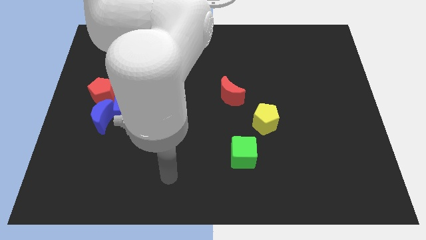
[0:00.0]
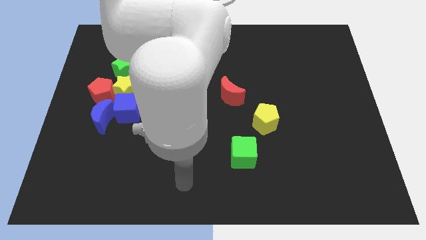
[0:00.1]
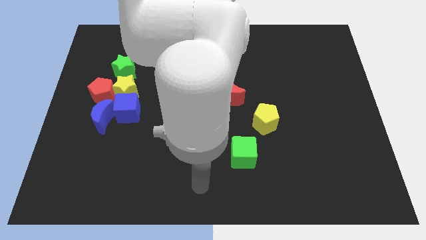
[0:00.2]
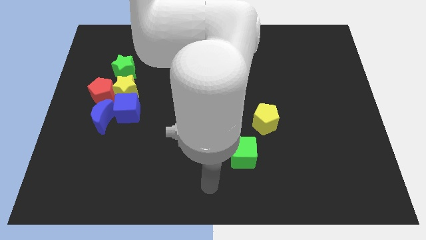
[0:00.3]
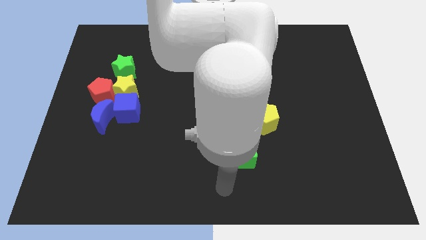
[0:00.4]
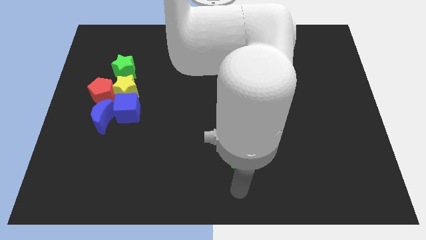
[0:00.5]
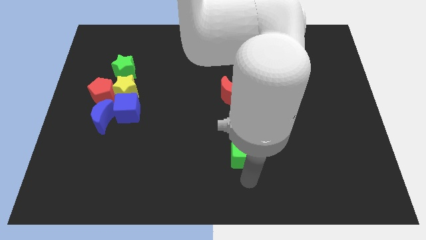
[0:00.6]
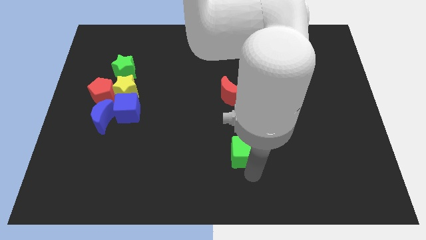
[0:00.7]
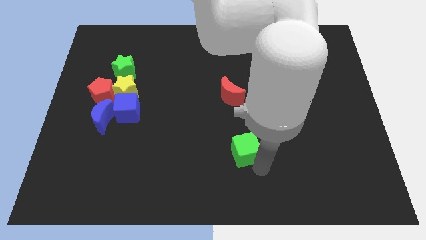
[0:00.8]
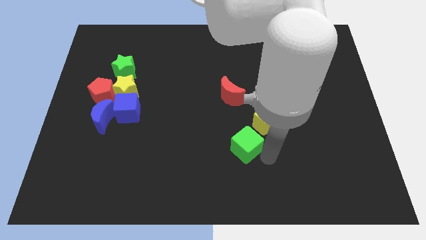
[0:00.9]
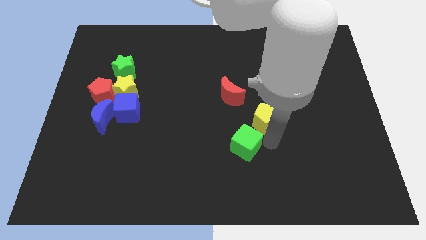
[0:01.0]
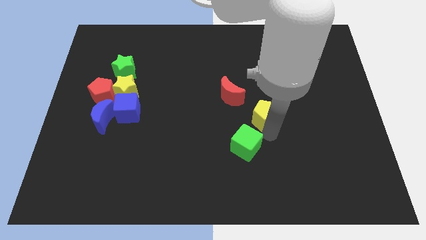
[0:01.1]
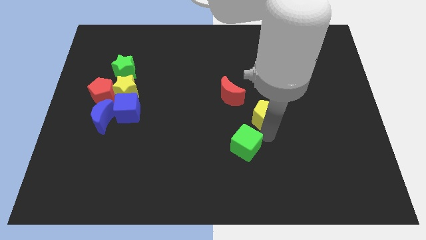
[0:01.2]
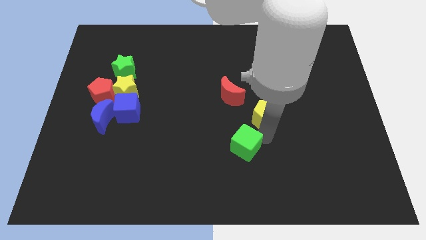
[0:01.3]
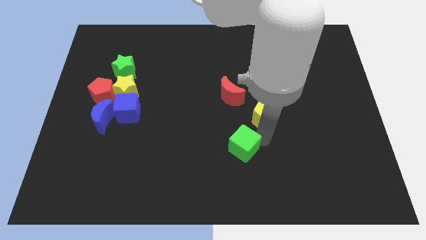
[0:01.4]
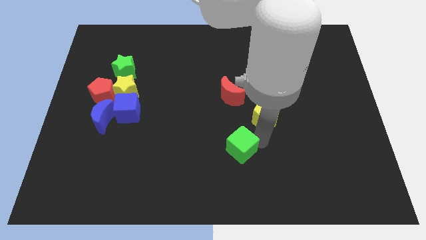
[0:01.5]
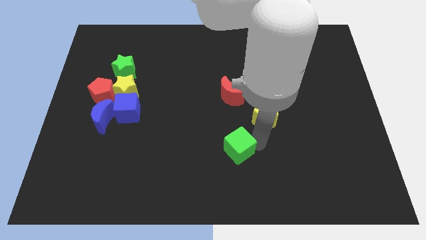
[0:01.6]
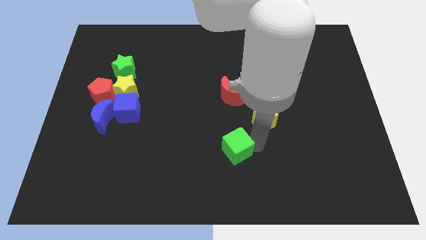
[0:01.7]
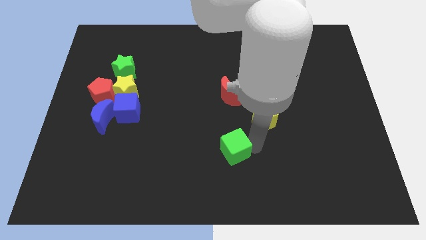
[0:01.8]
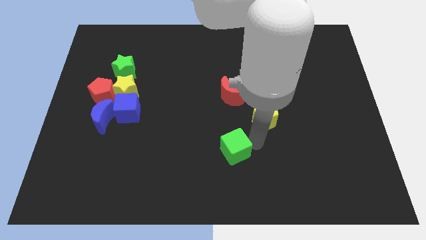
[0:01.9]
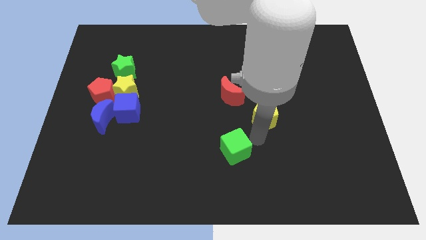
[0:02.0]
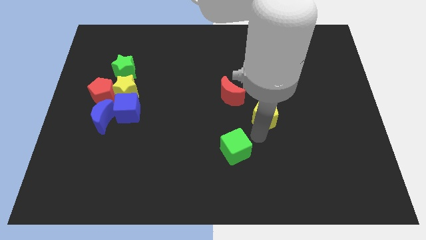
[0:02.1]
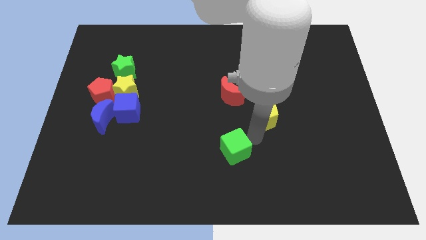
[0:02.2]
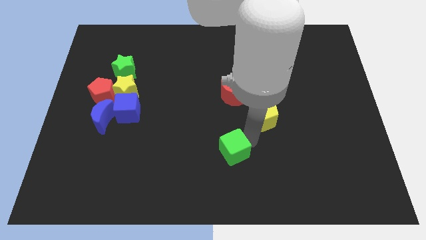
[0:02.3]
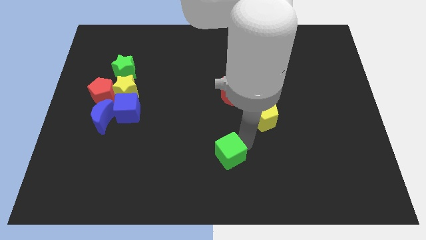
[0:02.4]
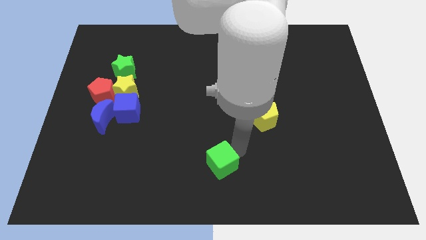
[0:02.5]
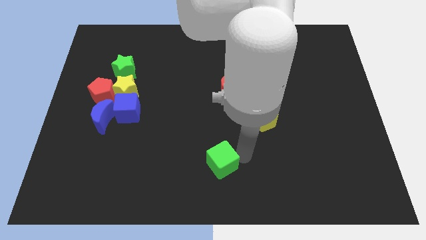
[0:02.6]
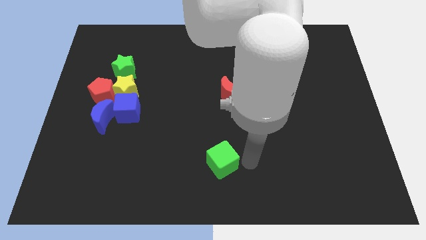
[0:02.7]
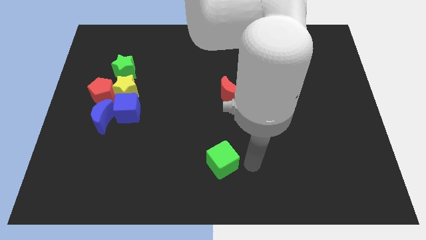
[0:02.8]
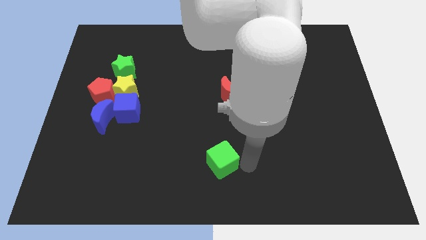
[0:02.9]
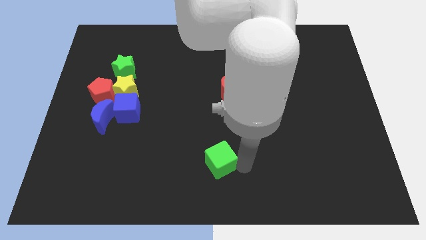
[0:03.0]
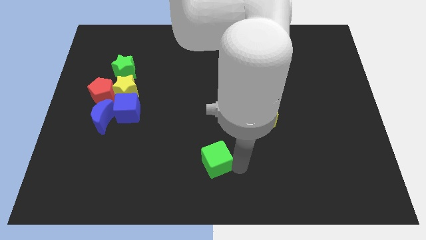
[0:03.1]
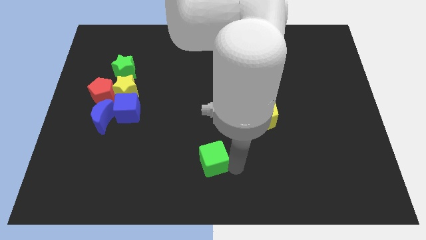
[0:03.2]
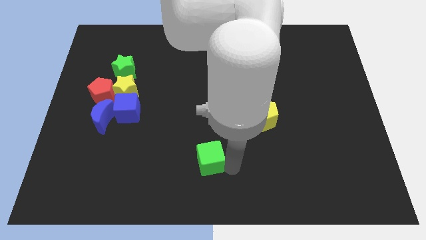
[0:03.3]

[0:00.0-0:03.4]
slide the green cube left a little

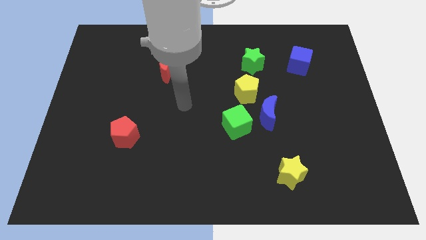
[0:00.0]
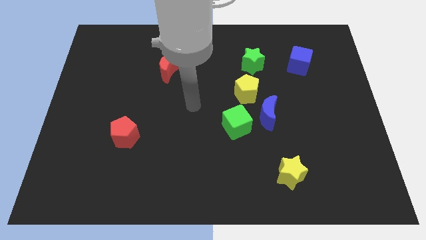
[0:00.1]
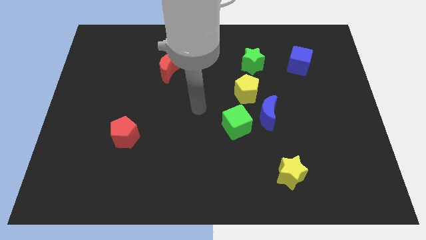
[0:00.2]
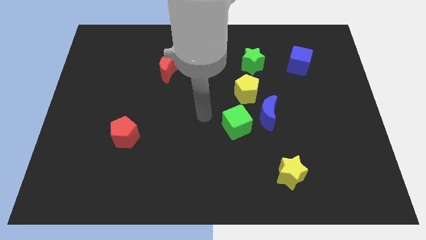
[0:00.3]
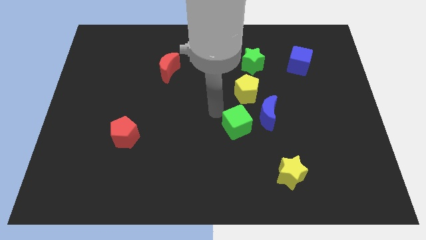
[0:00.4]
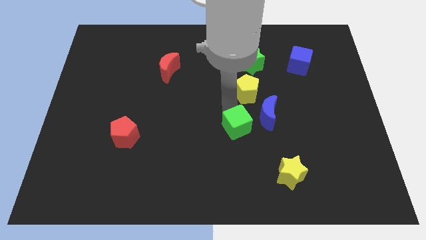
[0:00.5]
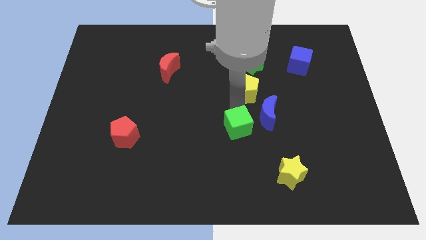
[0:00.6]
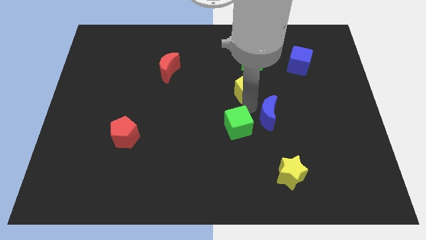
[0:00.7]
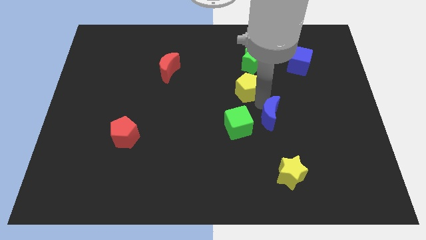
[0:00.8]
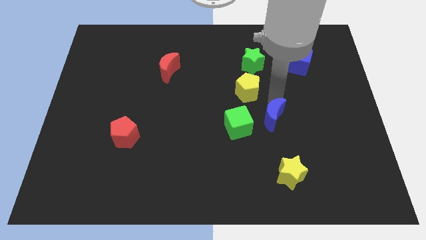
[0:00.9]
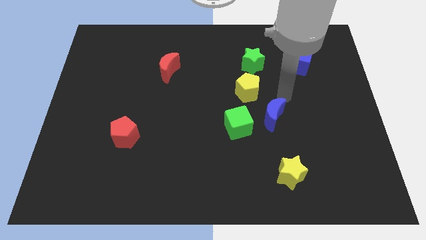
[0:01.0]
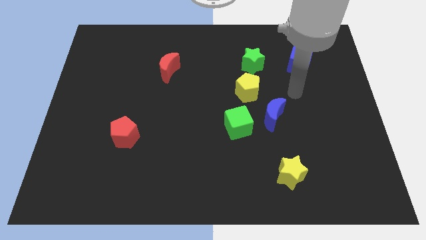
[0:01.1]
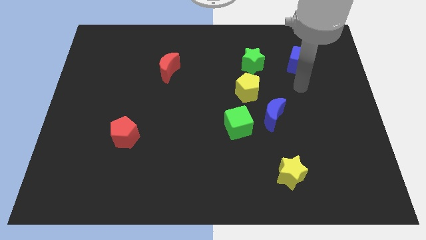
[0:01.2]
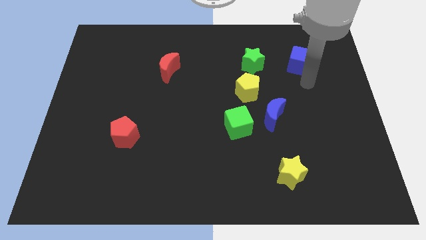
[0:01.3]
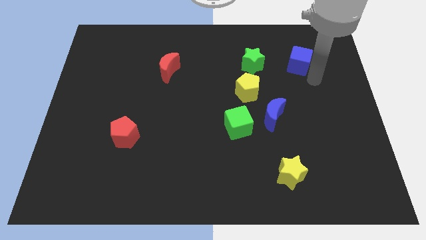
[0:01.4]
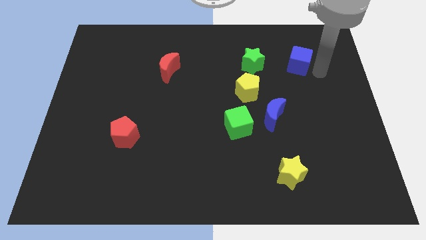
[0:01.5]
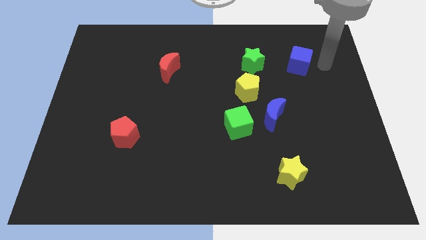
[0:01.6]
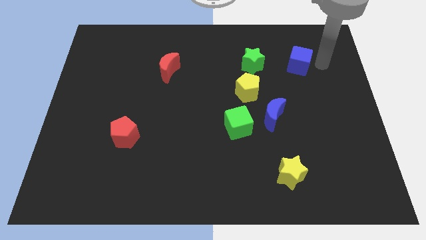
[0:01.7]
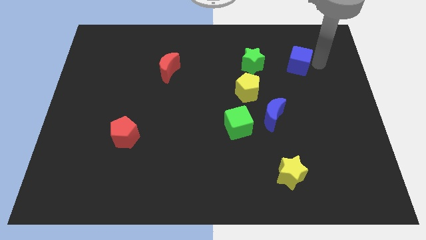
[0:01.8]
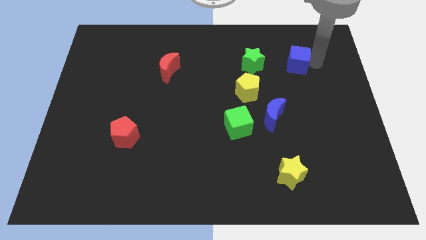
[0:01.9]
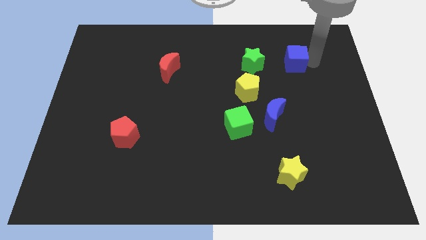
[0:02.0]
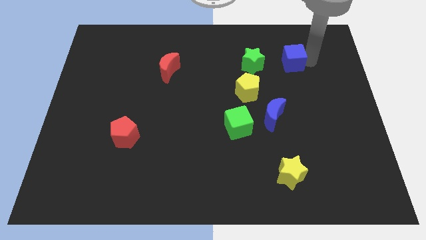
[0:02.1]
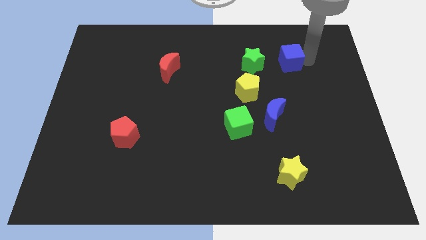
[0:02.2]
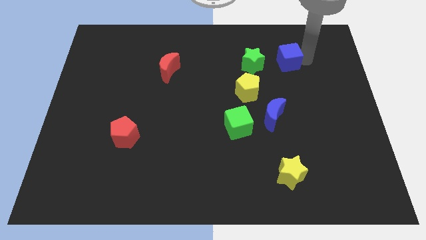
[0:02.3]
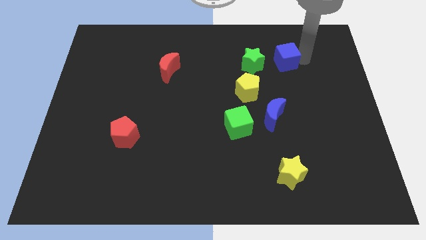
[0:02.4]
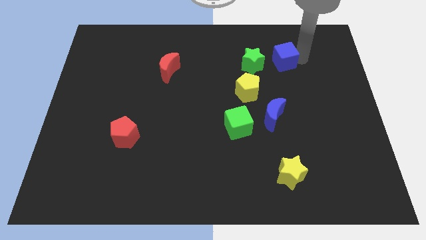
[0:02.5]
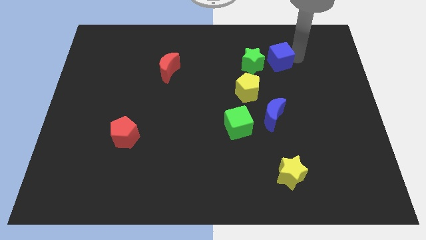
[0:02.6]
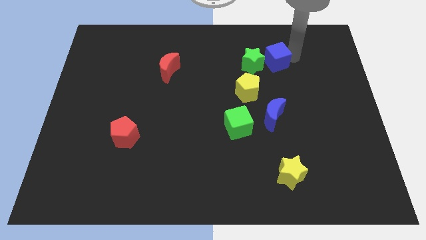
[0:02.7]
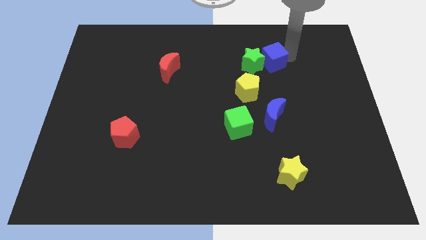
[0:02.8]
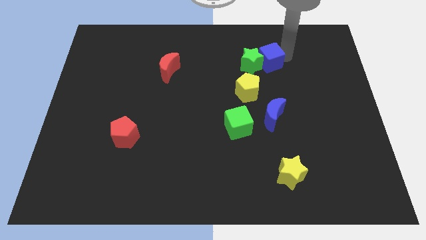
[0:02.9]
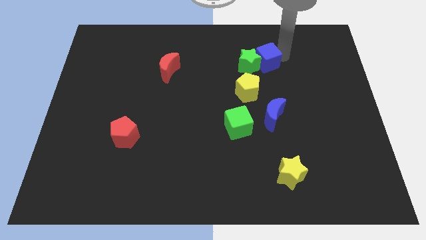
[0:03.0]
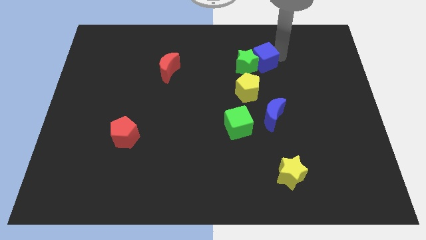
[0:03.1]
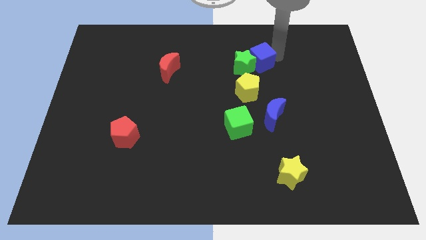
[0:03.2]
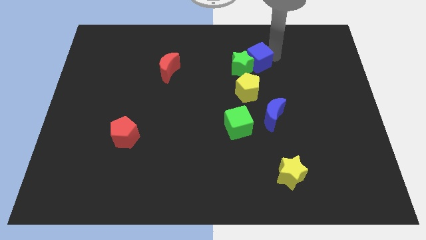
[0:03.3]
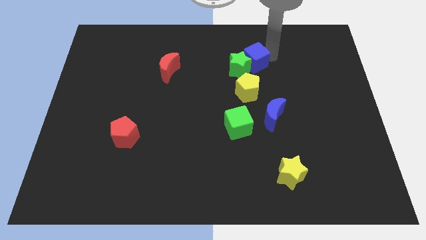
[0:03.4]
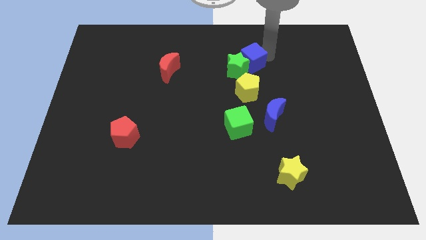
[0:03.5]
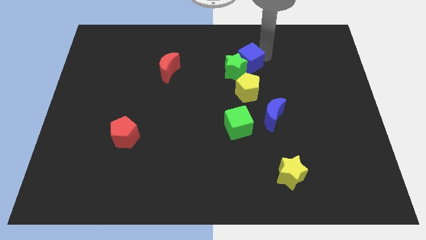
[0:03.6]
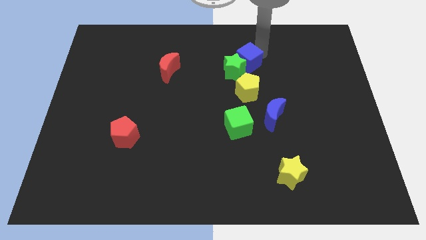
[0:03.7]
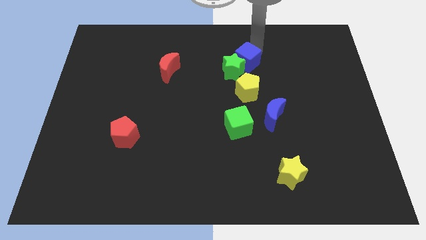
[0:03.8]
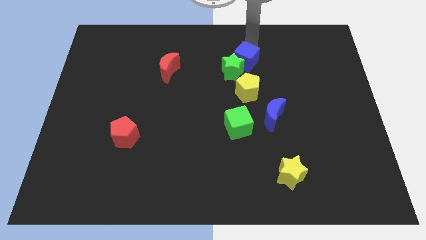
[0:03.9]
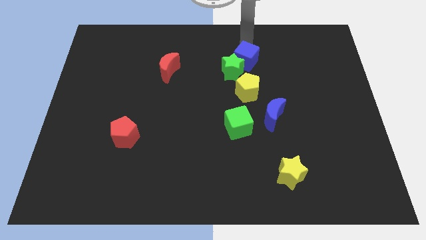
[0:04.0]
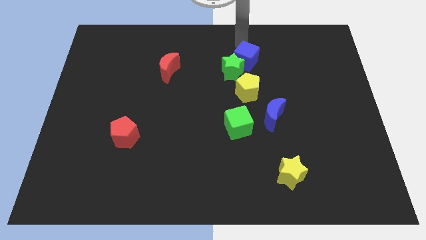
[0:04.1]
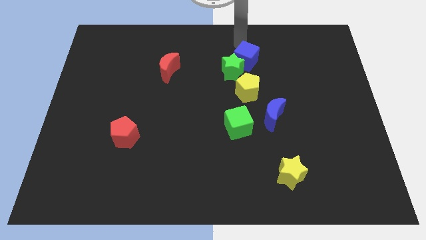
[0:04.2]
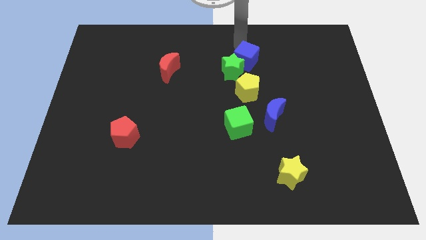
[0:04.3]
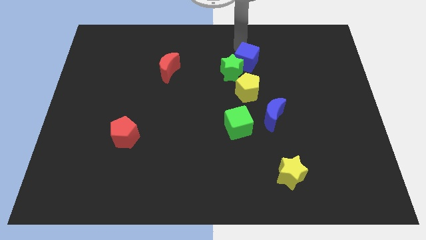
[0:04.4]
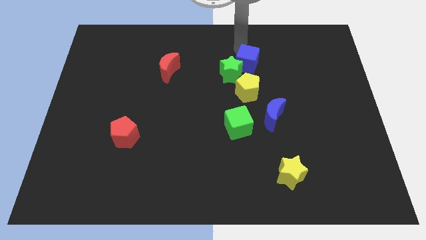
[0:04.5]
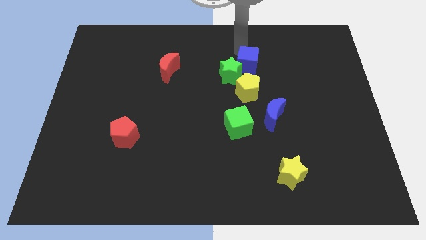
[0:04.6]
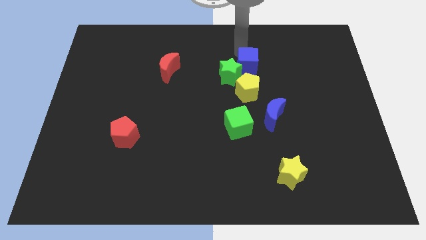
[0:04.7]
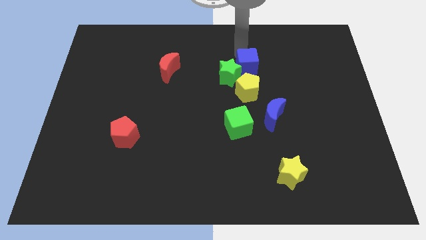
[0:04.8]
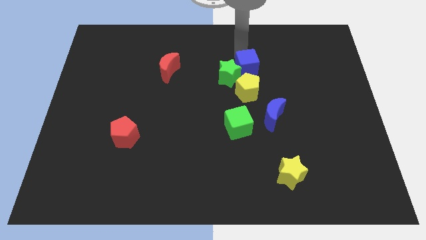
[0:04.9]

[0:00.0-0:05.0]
slide the blue cube a little diagonally down and left

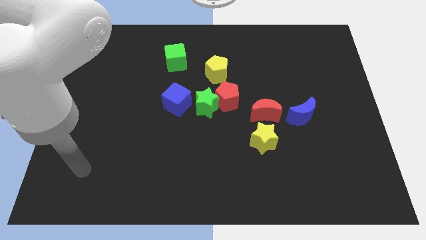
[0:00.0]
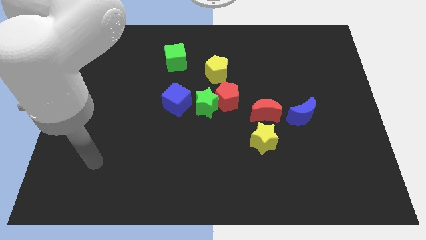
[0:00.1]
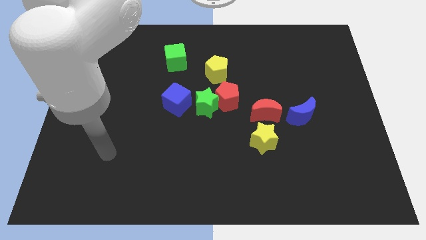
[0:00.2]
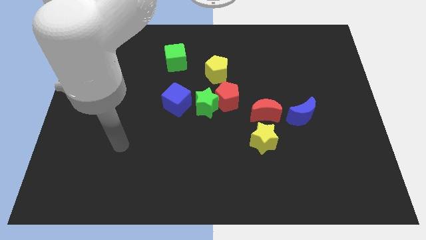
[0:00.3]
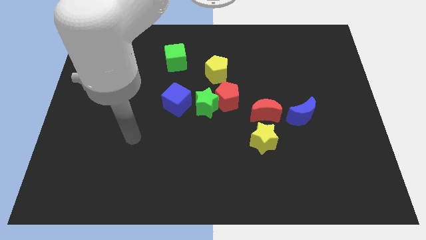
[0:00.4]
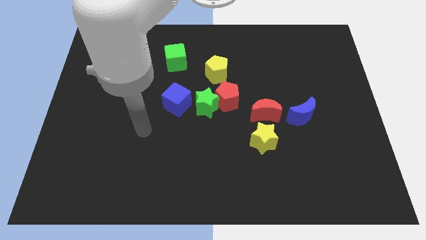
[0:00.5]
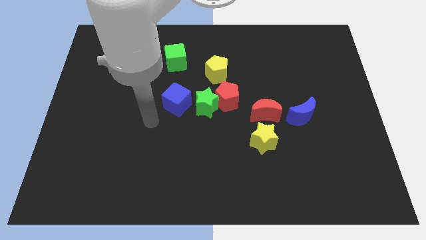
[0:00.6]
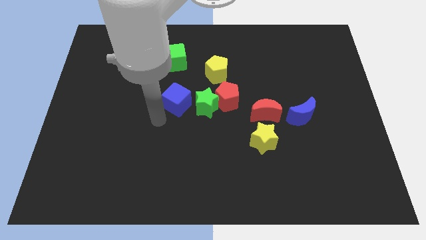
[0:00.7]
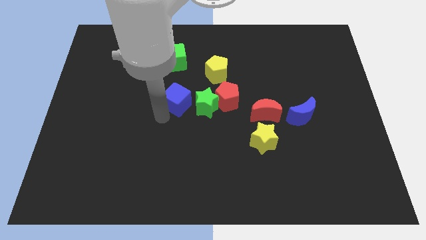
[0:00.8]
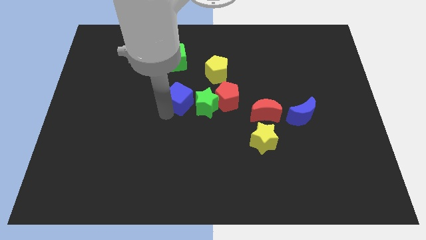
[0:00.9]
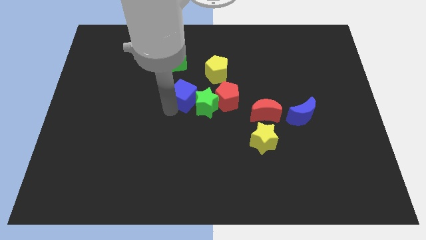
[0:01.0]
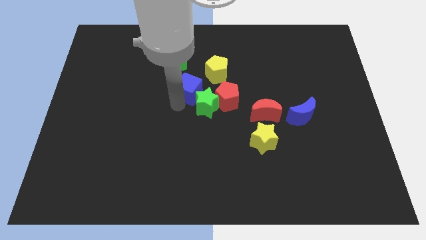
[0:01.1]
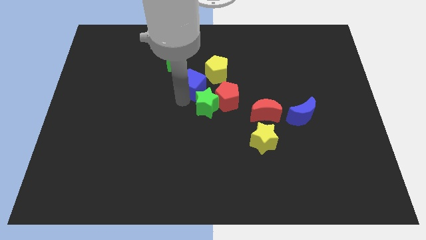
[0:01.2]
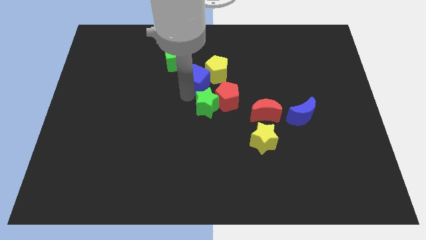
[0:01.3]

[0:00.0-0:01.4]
slightly push the blue cube upwards and to the right diagonally
